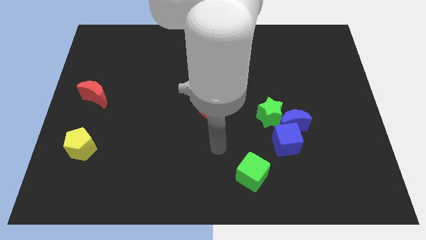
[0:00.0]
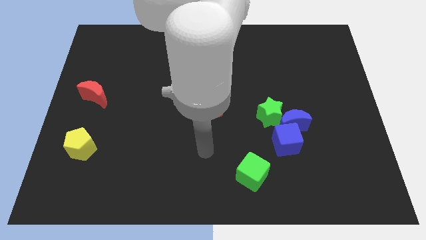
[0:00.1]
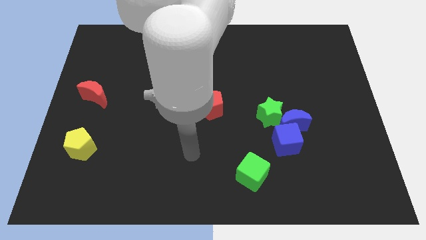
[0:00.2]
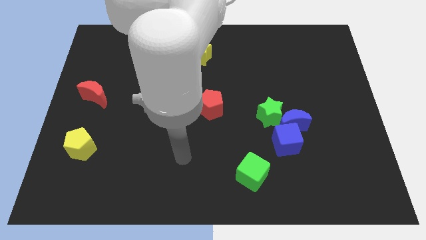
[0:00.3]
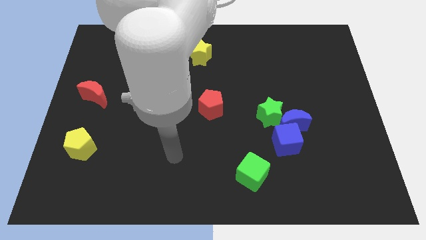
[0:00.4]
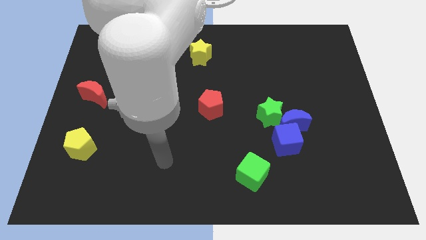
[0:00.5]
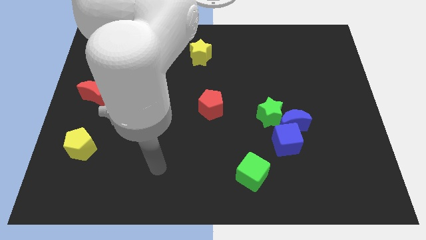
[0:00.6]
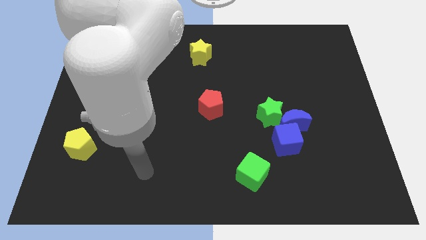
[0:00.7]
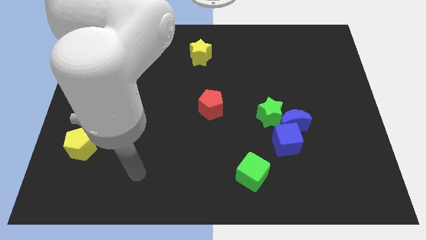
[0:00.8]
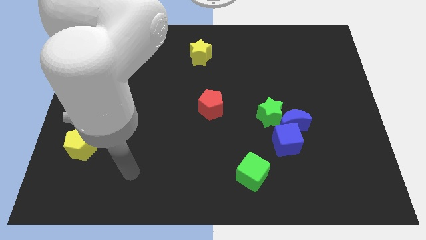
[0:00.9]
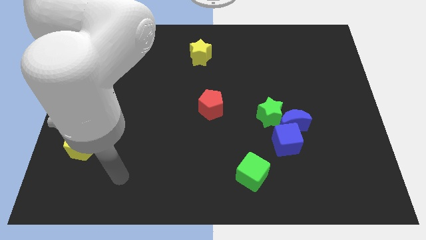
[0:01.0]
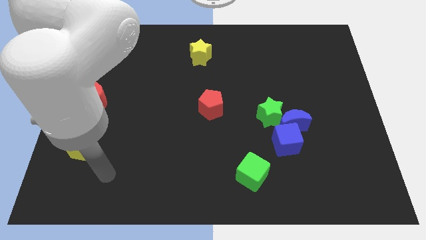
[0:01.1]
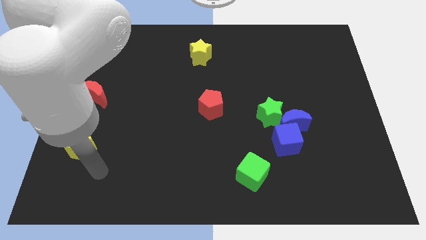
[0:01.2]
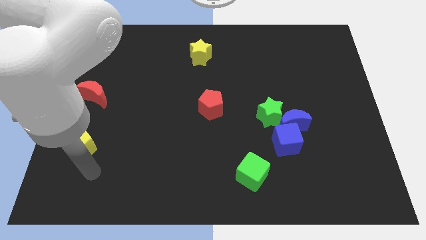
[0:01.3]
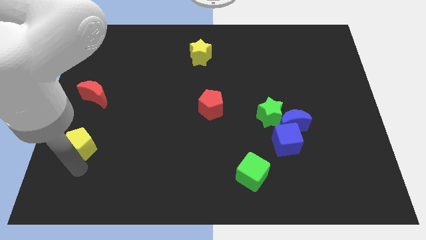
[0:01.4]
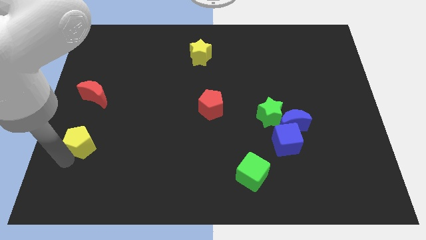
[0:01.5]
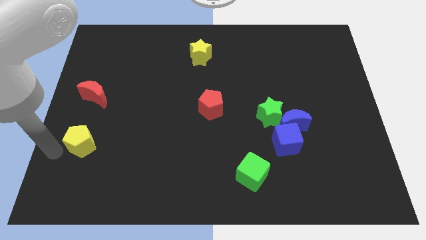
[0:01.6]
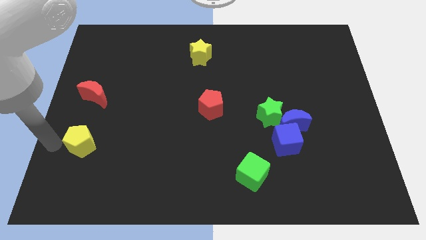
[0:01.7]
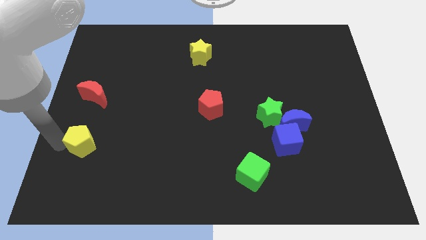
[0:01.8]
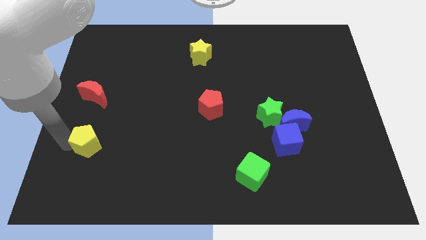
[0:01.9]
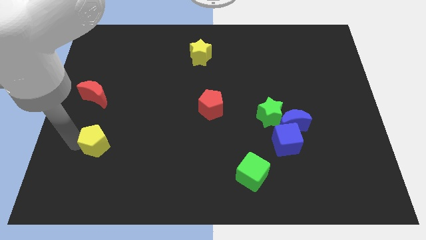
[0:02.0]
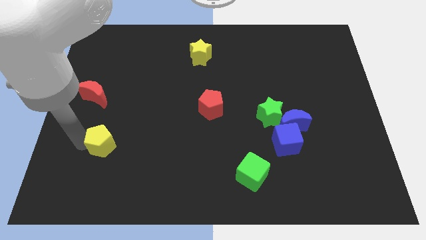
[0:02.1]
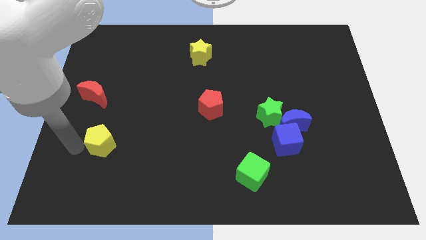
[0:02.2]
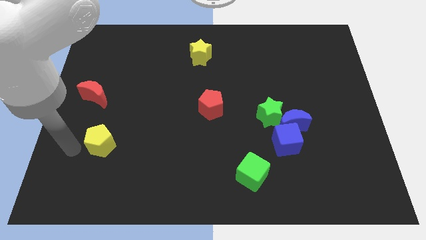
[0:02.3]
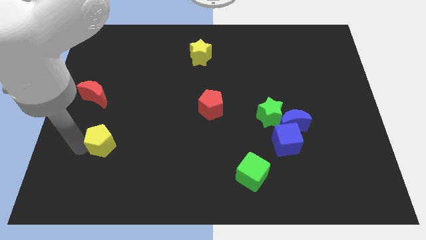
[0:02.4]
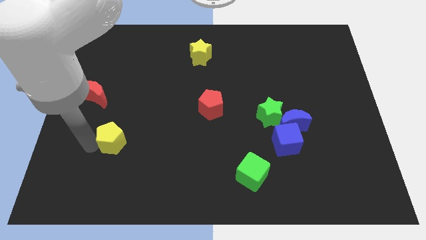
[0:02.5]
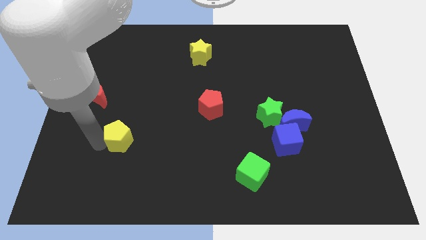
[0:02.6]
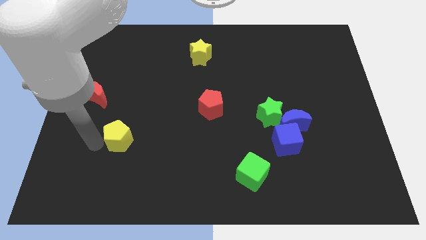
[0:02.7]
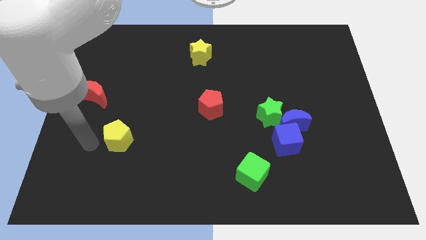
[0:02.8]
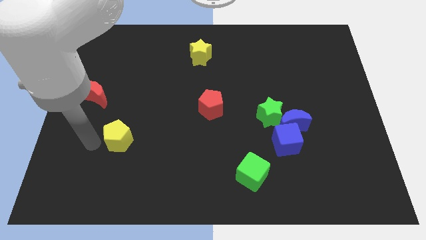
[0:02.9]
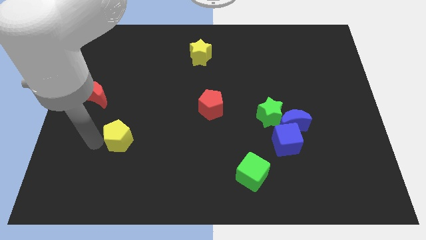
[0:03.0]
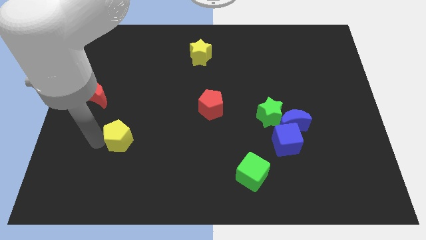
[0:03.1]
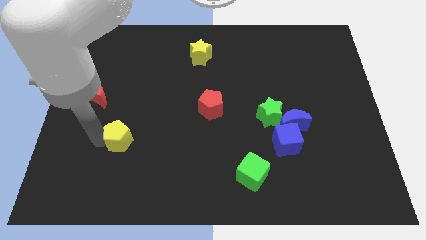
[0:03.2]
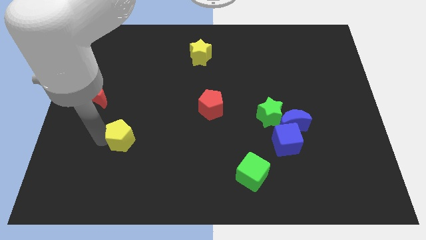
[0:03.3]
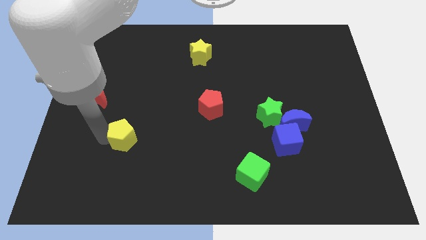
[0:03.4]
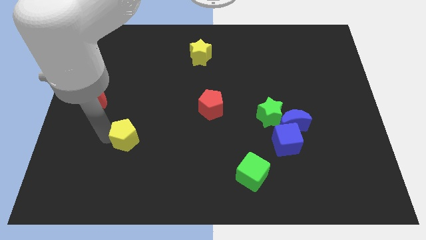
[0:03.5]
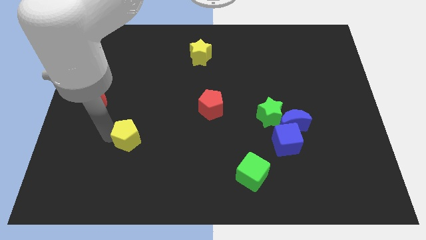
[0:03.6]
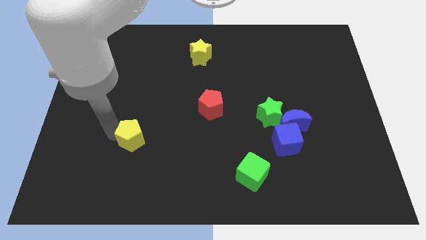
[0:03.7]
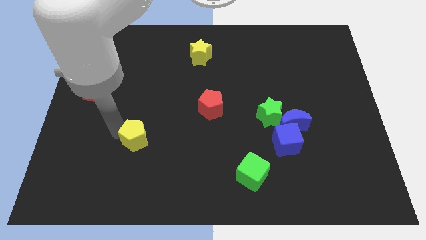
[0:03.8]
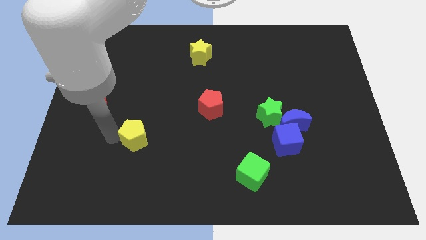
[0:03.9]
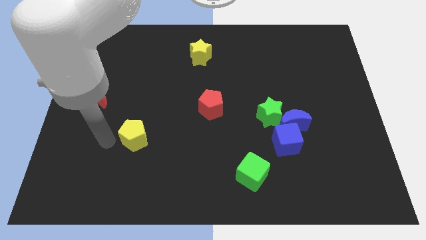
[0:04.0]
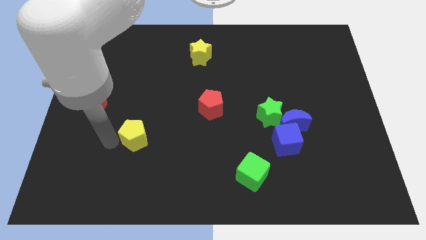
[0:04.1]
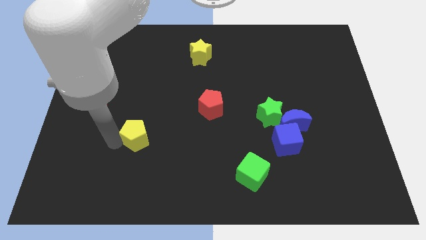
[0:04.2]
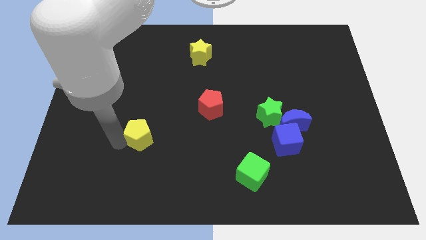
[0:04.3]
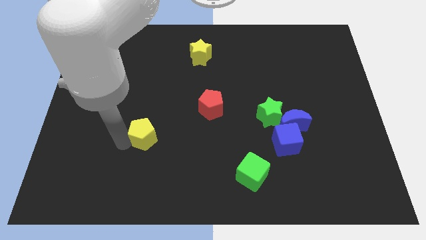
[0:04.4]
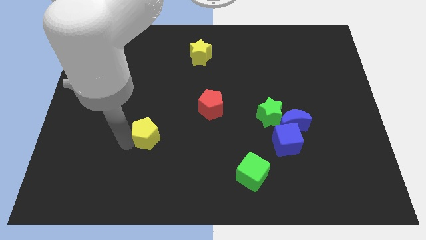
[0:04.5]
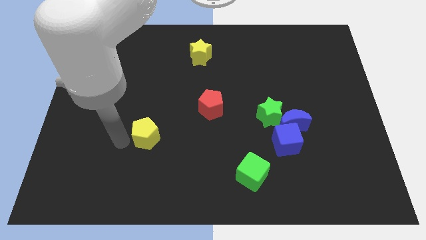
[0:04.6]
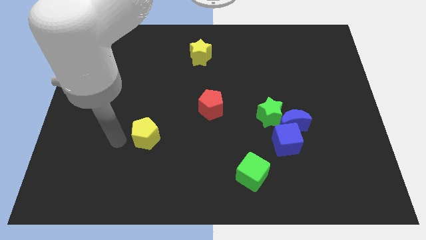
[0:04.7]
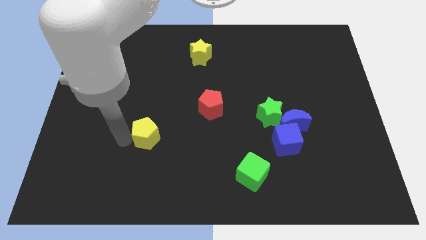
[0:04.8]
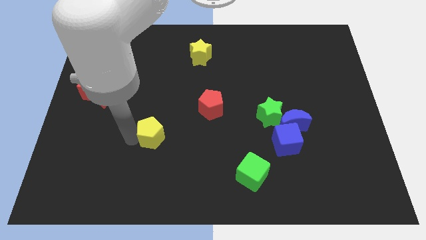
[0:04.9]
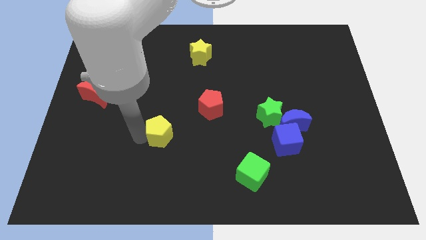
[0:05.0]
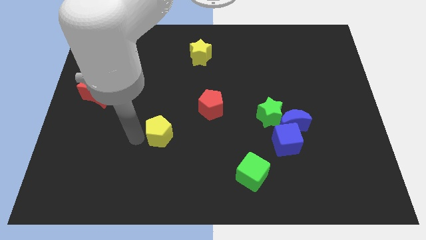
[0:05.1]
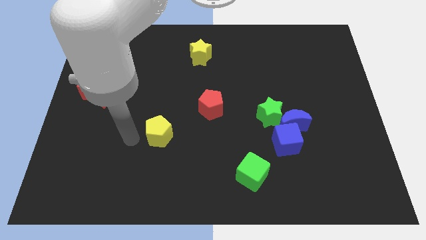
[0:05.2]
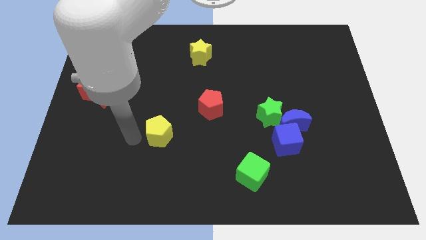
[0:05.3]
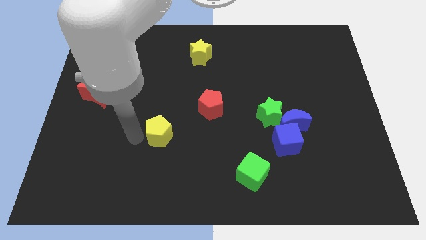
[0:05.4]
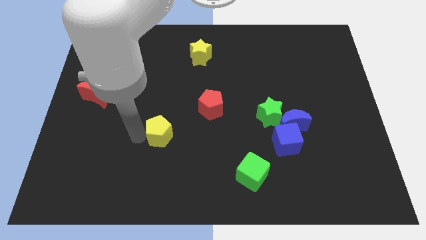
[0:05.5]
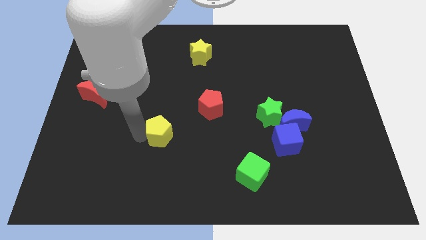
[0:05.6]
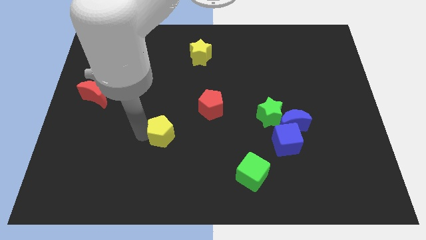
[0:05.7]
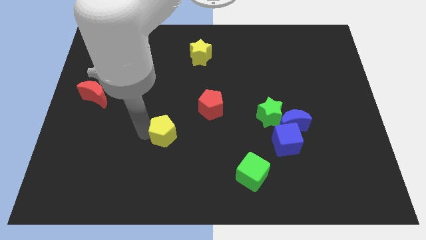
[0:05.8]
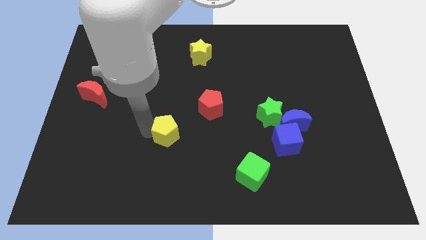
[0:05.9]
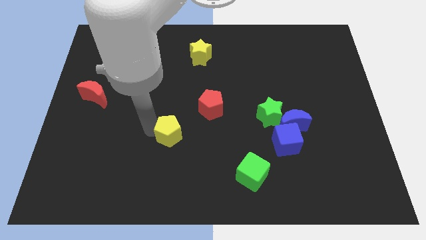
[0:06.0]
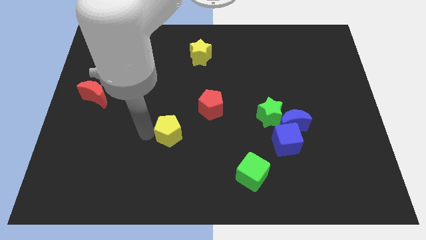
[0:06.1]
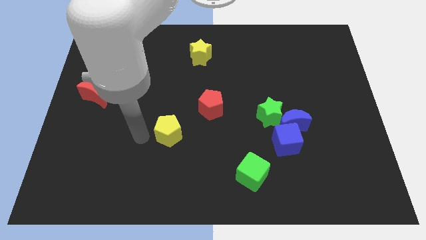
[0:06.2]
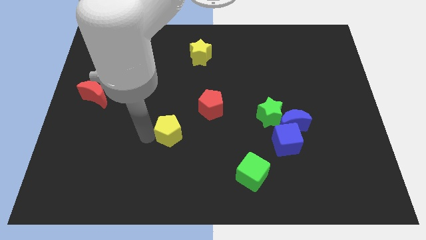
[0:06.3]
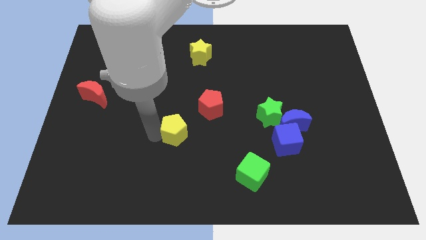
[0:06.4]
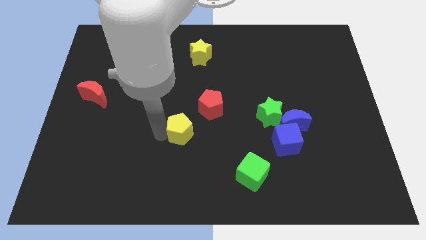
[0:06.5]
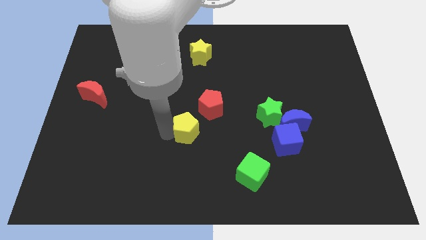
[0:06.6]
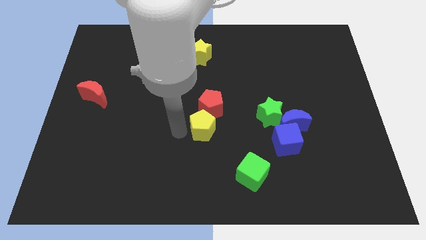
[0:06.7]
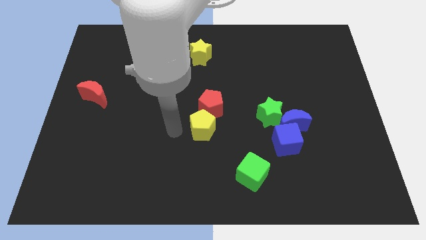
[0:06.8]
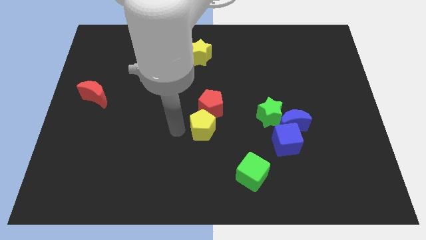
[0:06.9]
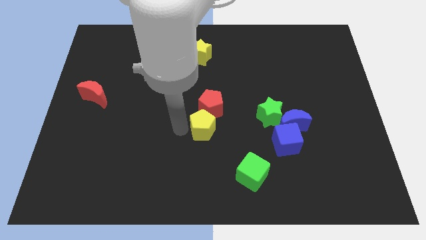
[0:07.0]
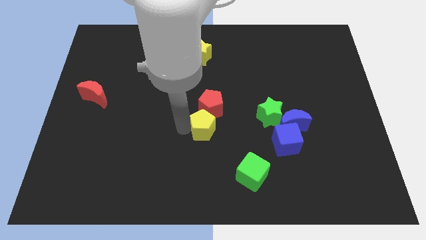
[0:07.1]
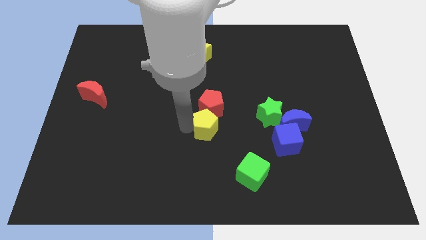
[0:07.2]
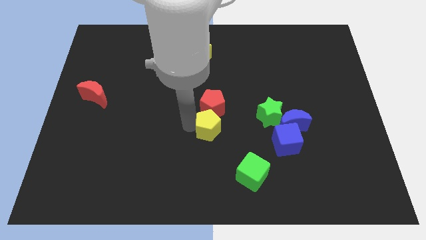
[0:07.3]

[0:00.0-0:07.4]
put the yellow pentagon diagonally down and to the right of the red pentagon

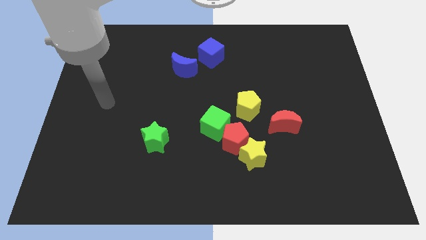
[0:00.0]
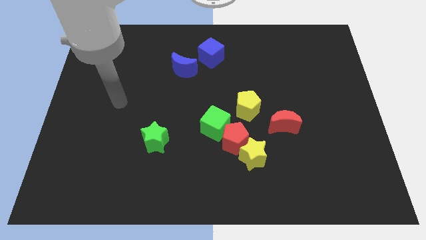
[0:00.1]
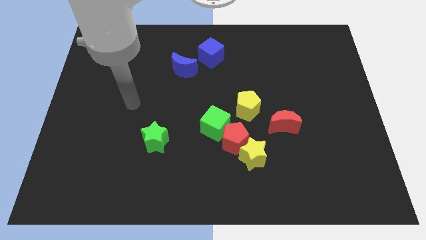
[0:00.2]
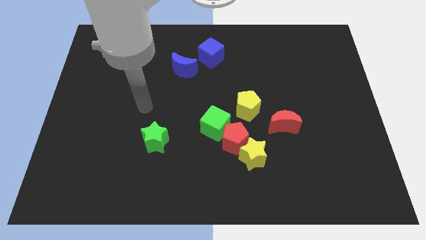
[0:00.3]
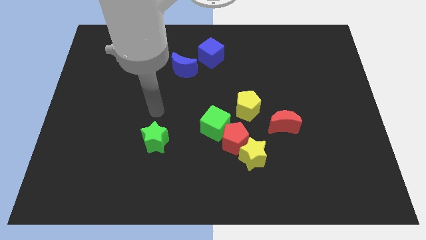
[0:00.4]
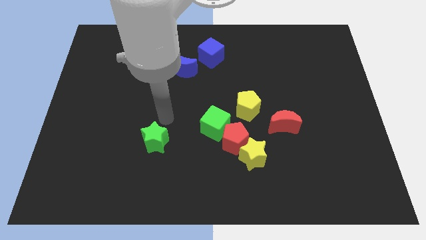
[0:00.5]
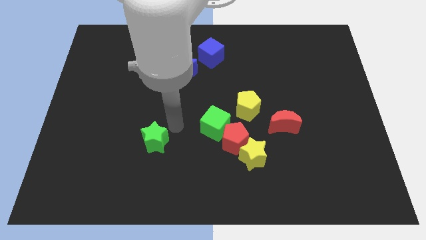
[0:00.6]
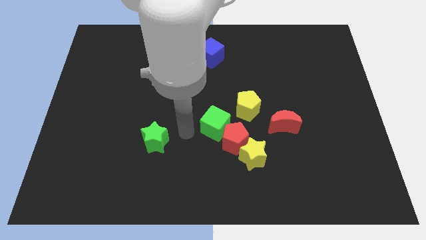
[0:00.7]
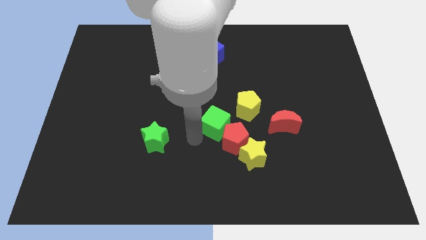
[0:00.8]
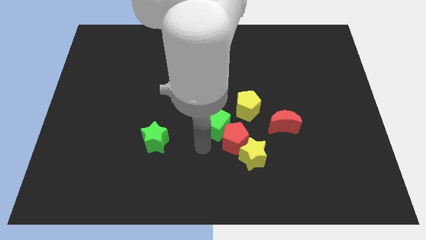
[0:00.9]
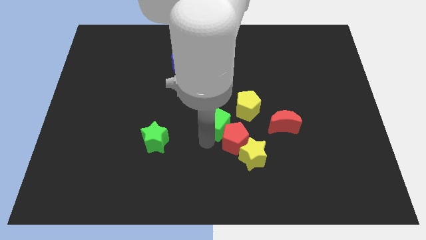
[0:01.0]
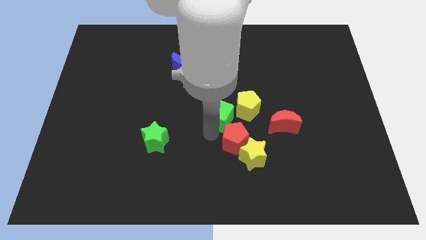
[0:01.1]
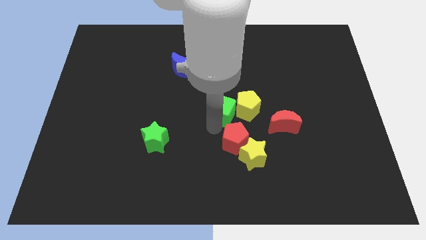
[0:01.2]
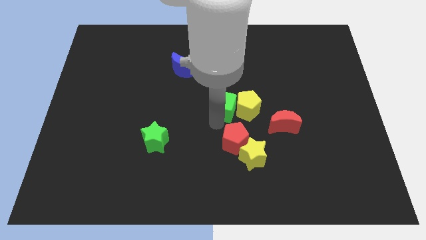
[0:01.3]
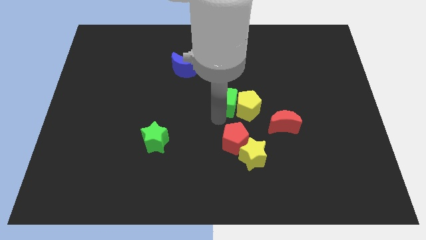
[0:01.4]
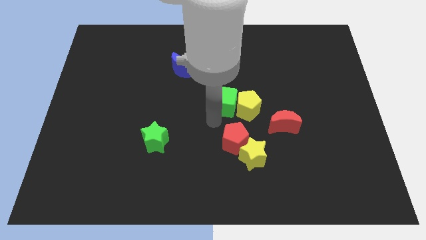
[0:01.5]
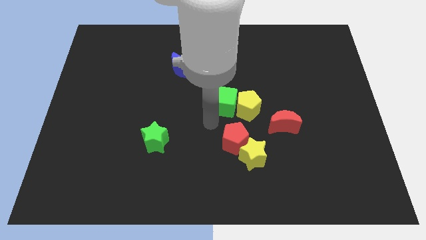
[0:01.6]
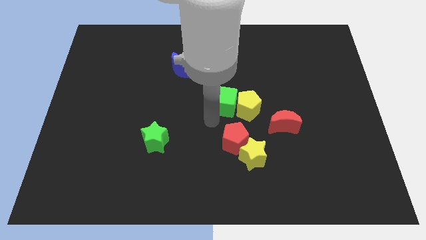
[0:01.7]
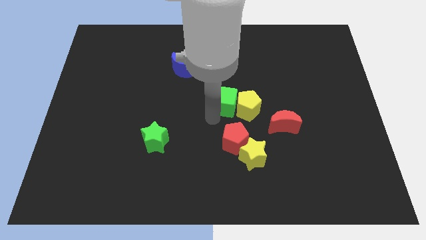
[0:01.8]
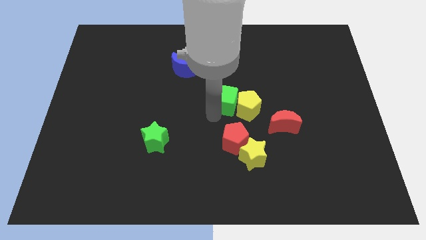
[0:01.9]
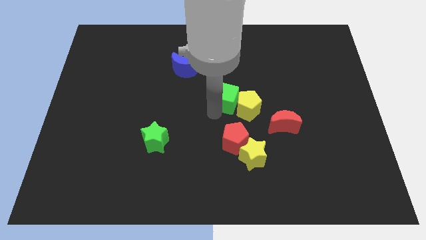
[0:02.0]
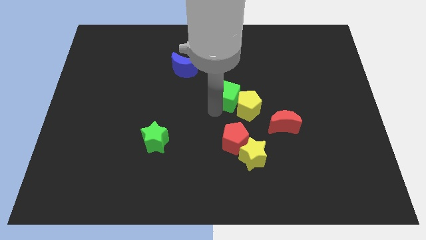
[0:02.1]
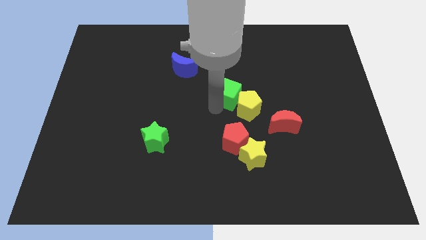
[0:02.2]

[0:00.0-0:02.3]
slide the green cube above the yellow pentagon
